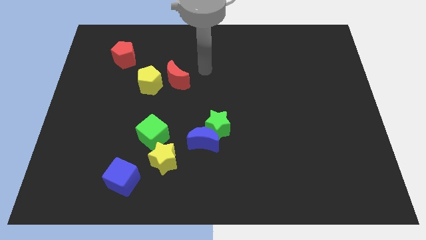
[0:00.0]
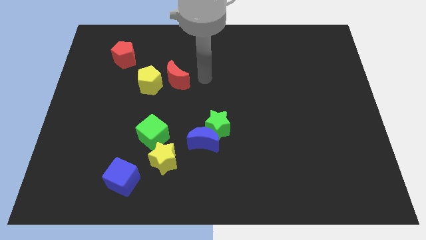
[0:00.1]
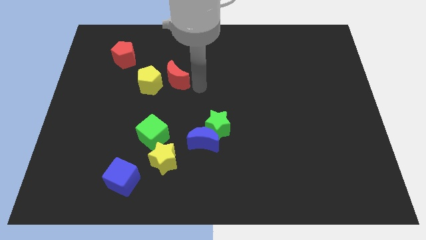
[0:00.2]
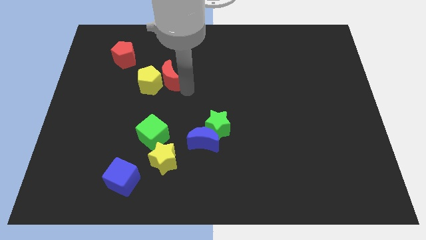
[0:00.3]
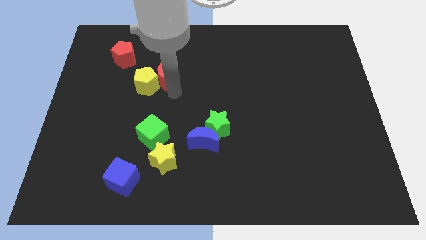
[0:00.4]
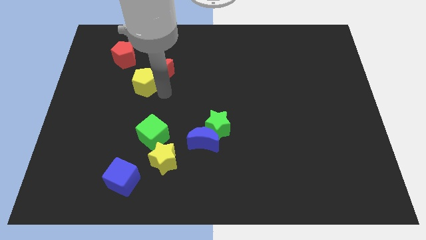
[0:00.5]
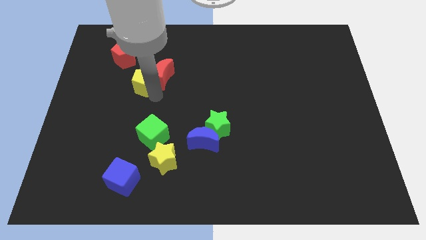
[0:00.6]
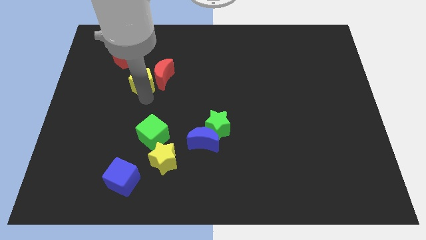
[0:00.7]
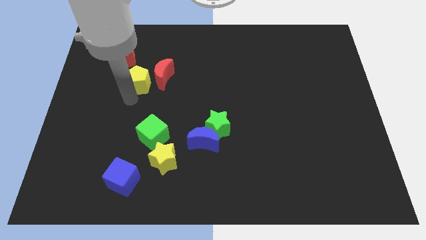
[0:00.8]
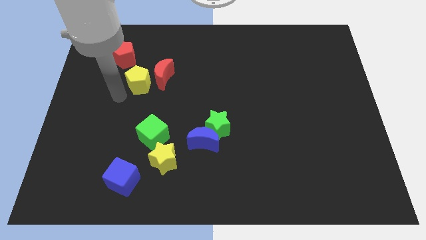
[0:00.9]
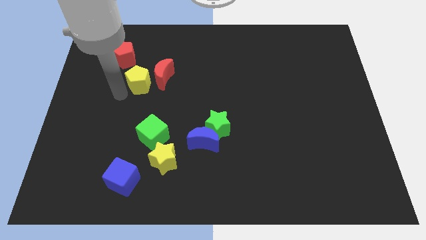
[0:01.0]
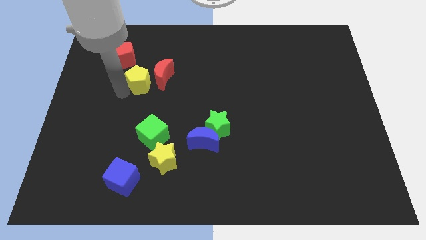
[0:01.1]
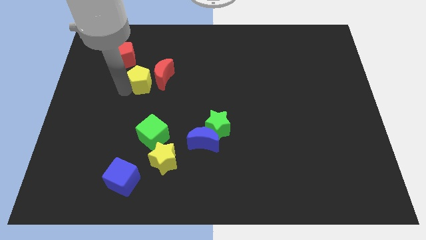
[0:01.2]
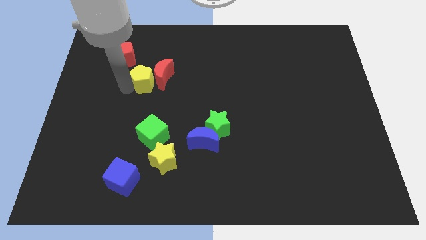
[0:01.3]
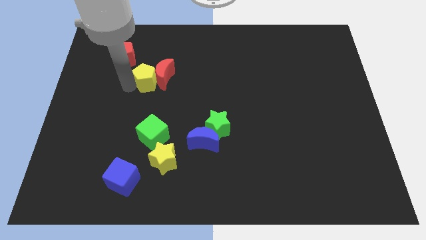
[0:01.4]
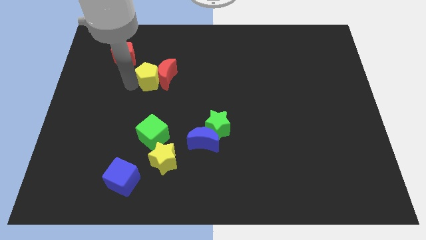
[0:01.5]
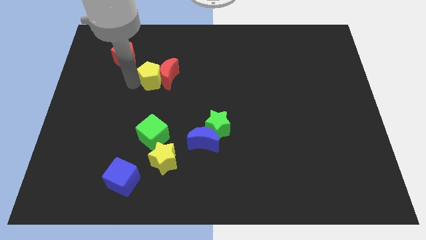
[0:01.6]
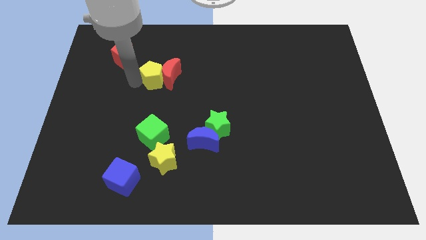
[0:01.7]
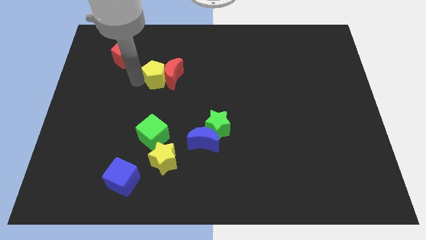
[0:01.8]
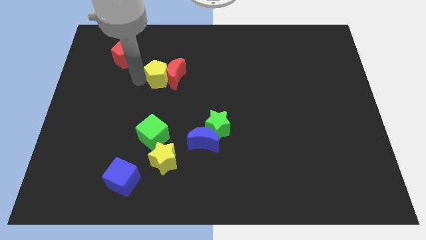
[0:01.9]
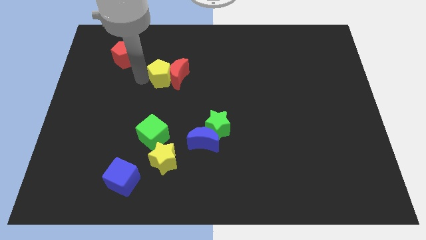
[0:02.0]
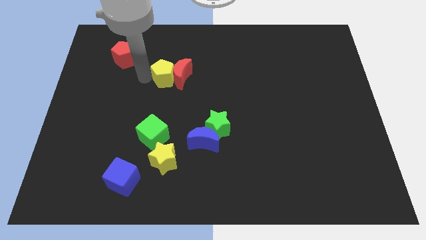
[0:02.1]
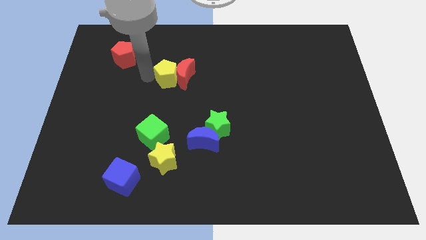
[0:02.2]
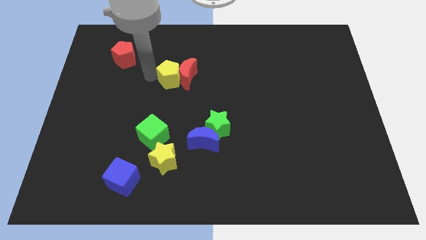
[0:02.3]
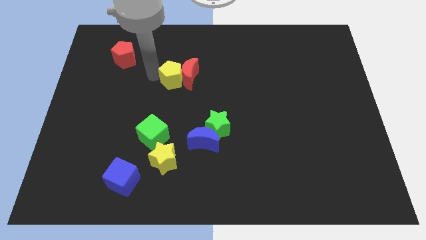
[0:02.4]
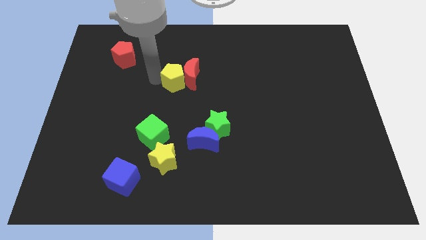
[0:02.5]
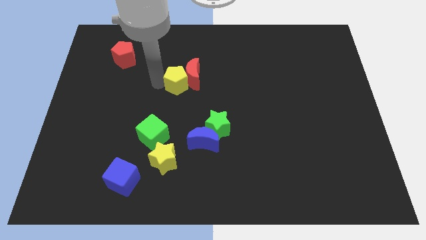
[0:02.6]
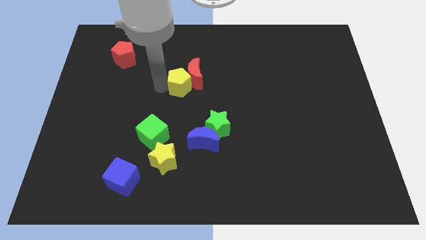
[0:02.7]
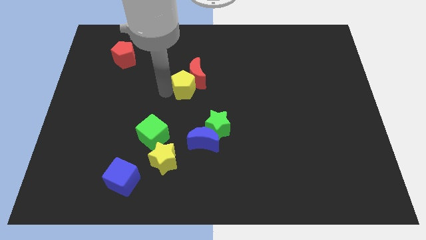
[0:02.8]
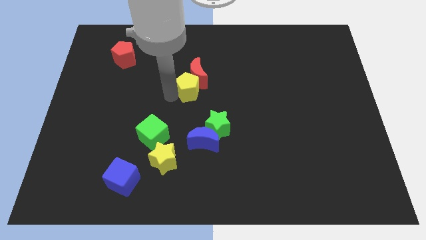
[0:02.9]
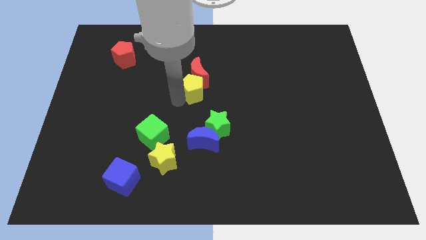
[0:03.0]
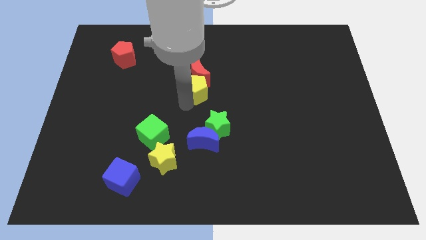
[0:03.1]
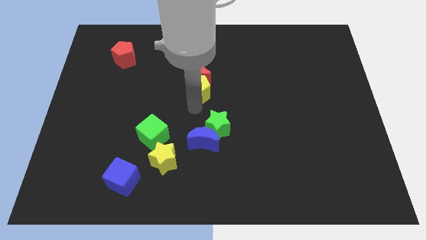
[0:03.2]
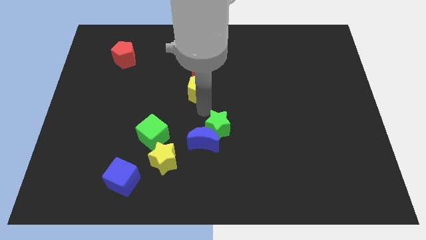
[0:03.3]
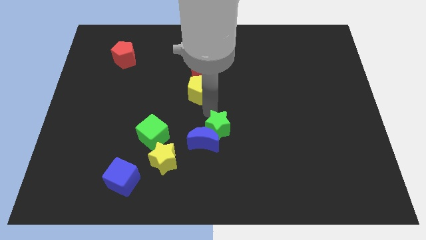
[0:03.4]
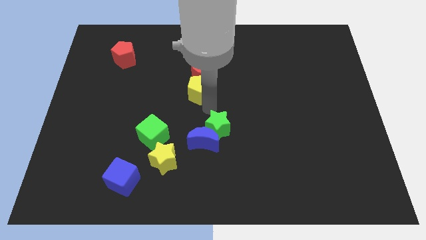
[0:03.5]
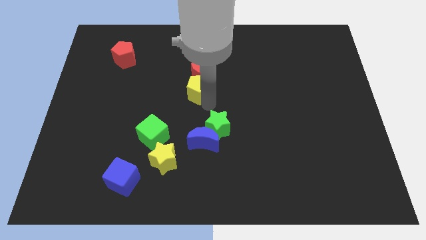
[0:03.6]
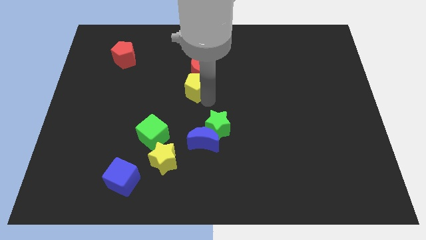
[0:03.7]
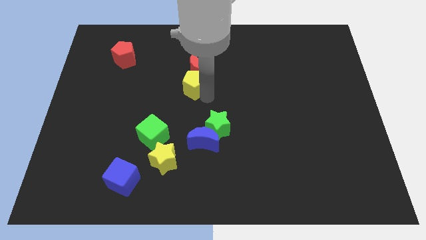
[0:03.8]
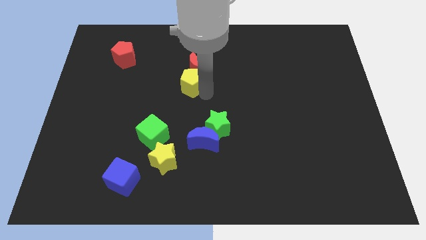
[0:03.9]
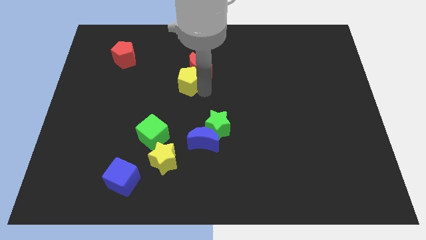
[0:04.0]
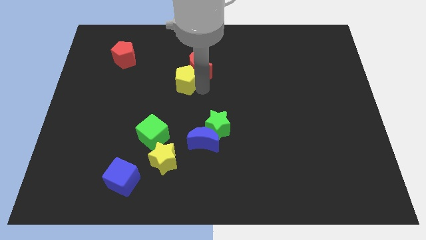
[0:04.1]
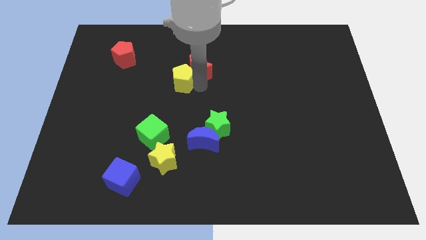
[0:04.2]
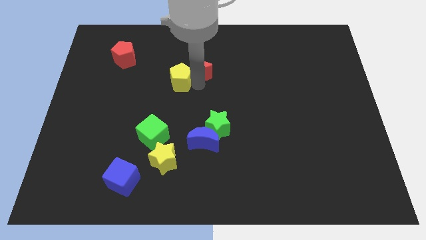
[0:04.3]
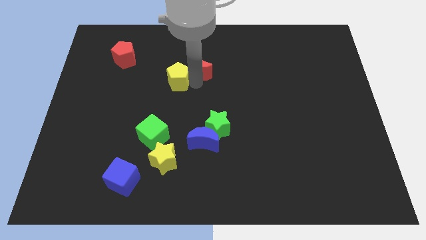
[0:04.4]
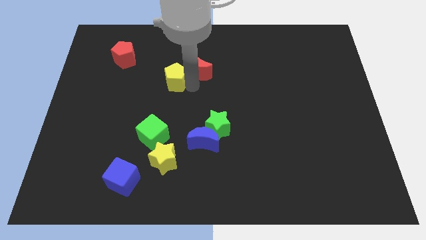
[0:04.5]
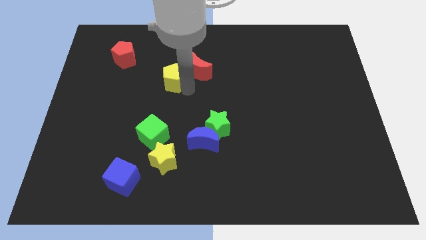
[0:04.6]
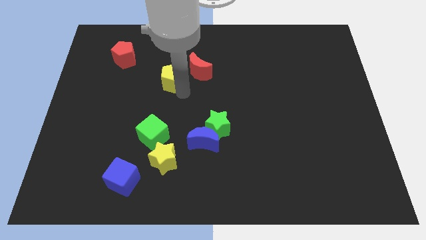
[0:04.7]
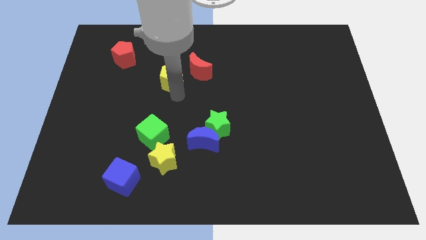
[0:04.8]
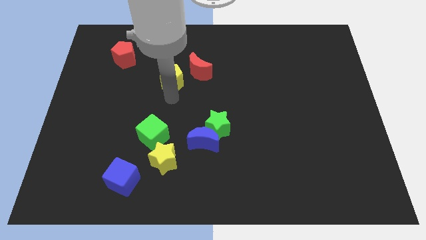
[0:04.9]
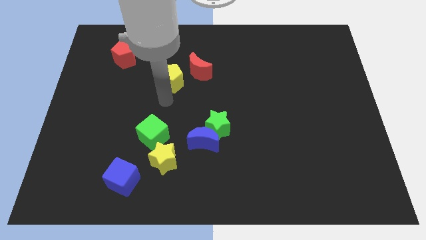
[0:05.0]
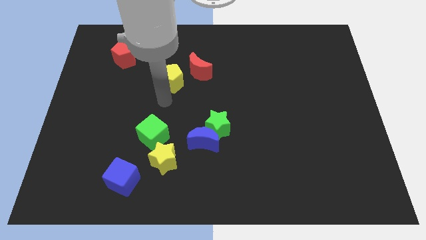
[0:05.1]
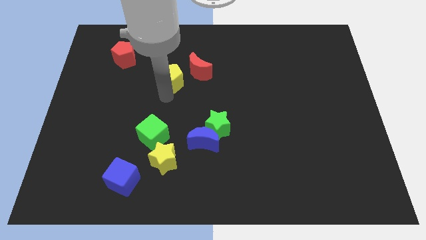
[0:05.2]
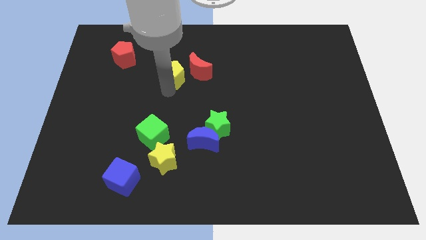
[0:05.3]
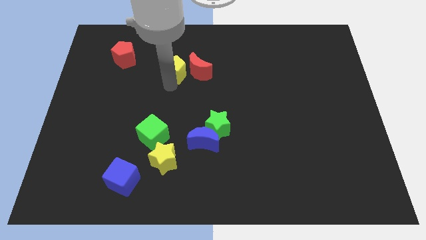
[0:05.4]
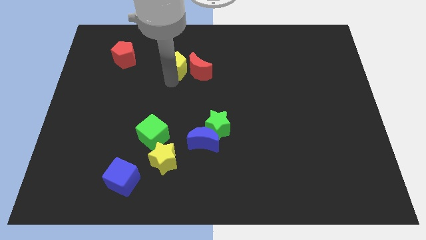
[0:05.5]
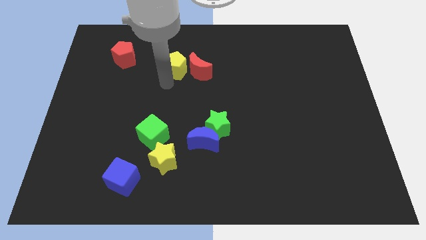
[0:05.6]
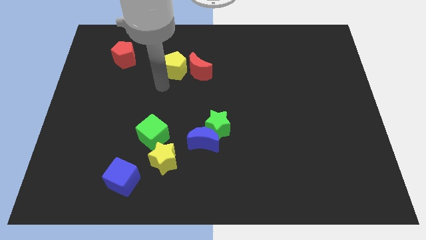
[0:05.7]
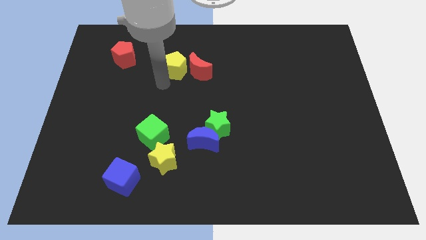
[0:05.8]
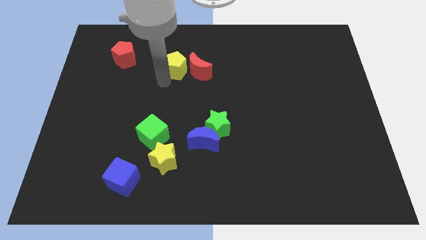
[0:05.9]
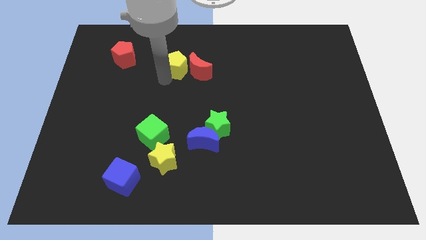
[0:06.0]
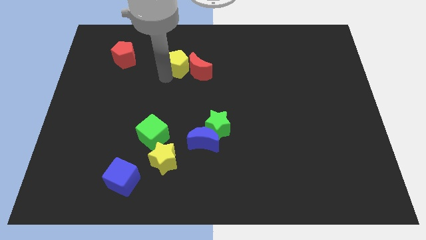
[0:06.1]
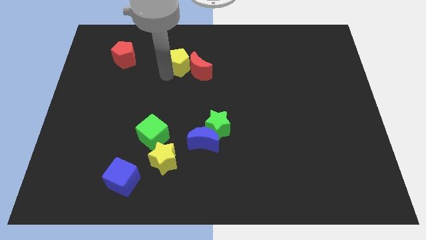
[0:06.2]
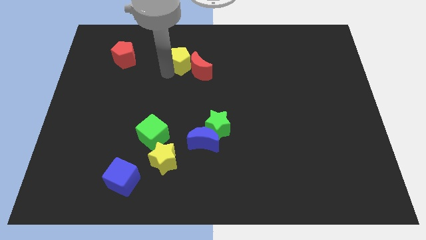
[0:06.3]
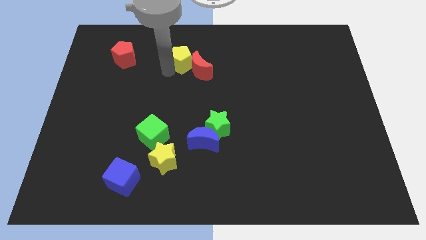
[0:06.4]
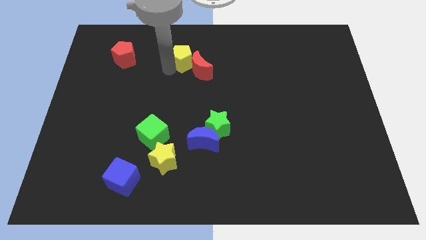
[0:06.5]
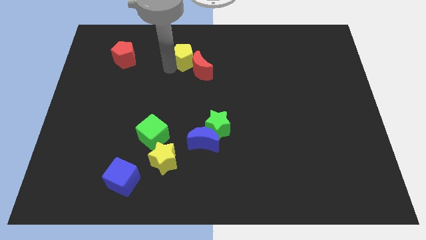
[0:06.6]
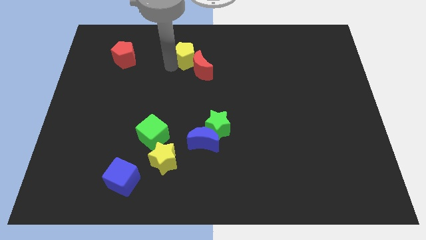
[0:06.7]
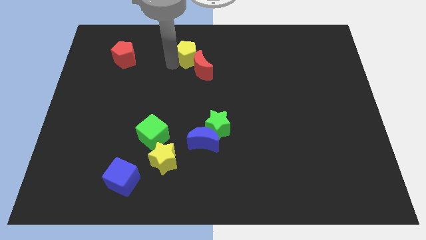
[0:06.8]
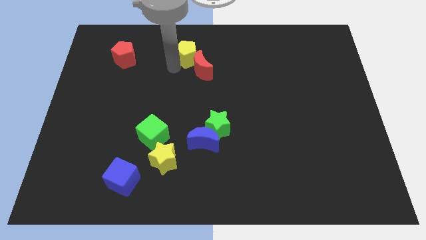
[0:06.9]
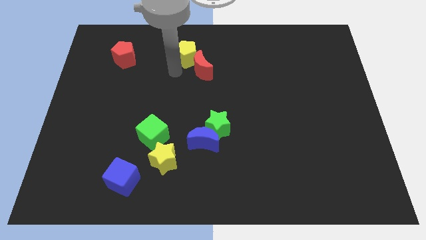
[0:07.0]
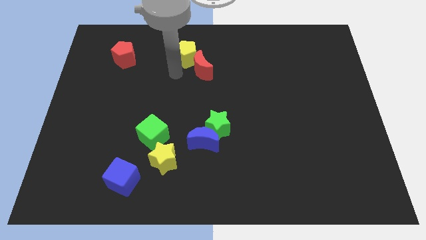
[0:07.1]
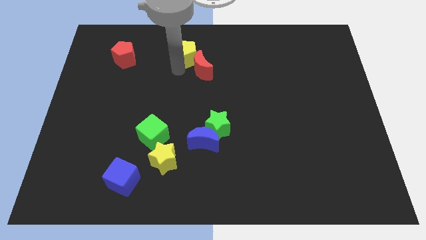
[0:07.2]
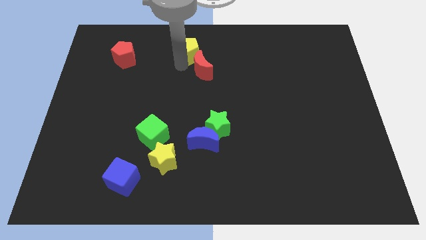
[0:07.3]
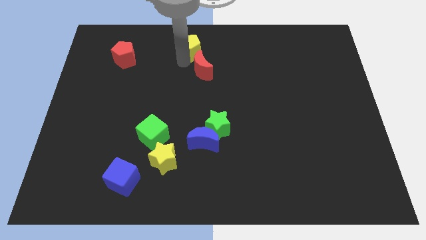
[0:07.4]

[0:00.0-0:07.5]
slide the yellow pentagon to the top
